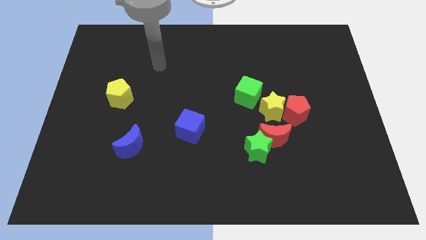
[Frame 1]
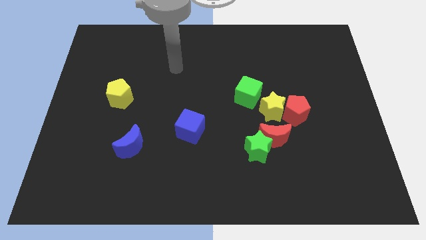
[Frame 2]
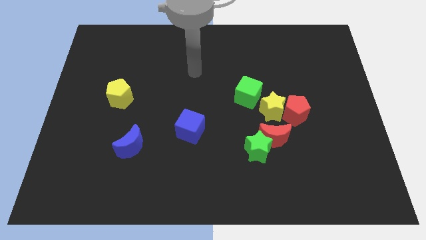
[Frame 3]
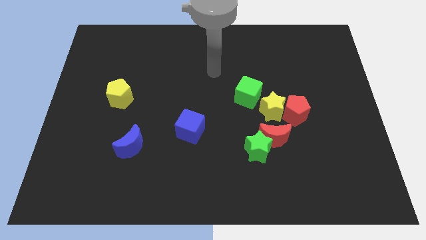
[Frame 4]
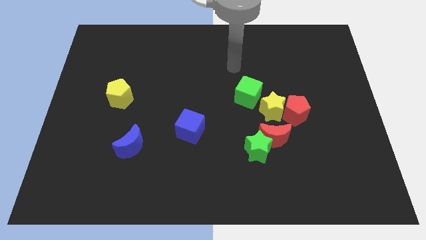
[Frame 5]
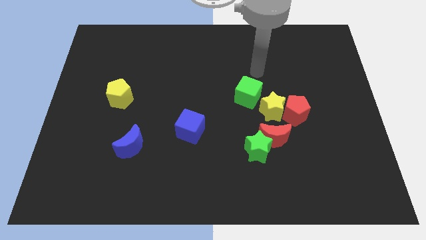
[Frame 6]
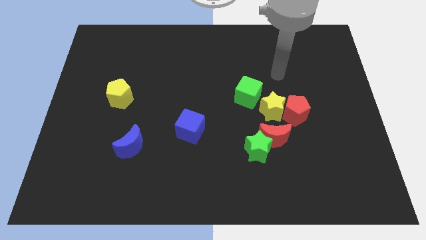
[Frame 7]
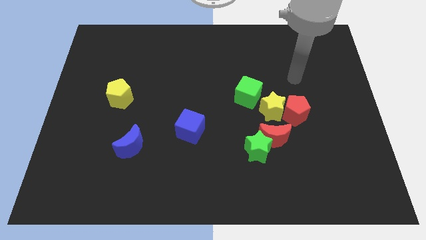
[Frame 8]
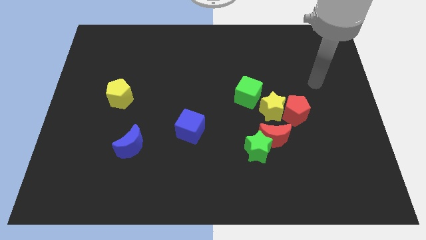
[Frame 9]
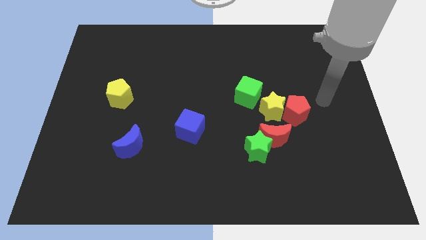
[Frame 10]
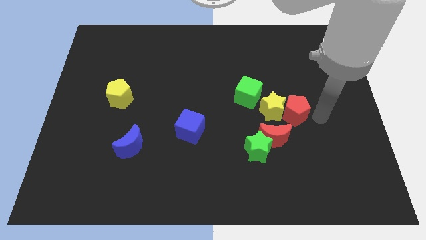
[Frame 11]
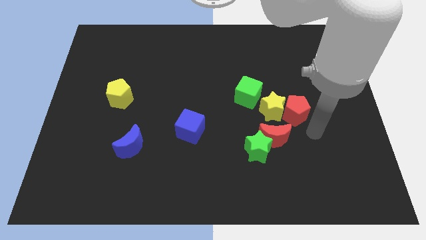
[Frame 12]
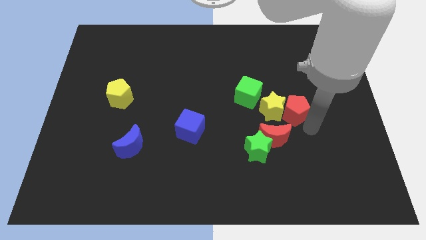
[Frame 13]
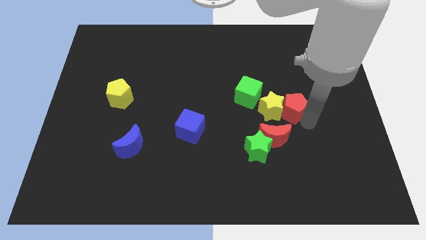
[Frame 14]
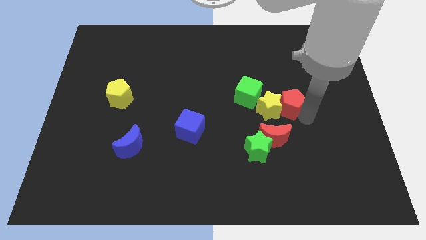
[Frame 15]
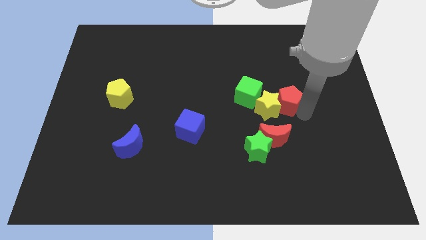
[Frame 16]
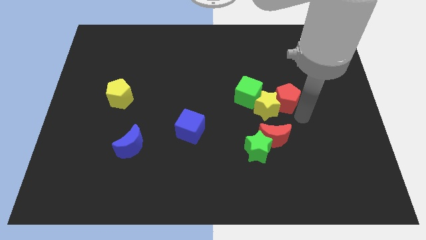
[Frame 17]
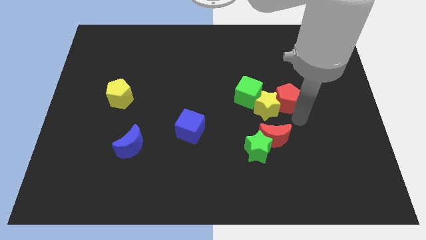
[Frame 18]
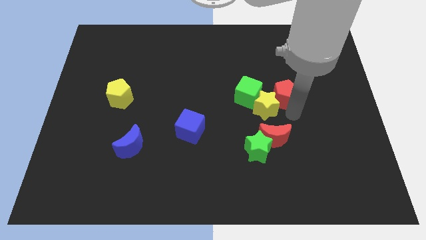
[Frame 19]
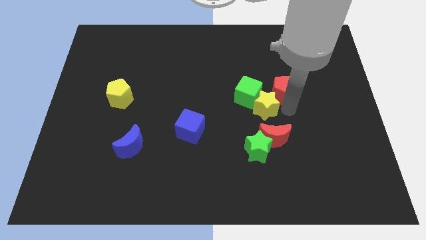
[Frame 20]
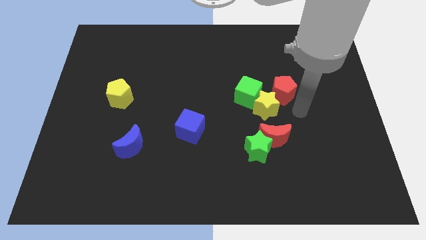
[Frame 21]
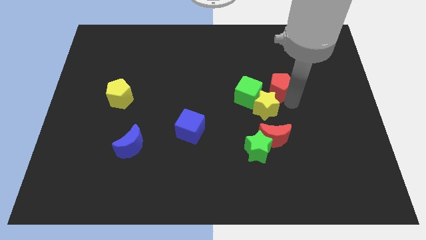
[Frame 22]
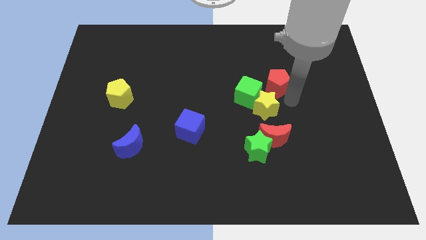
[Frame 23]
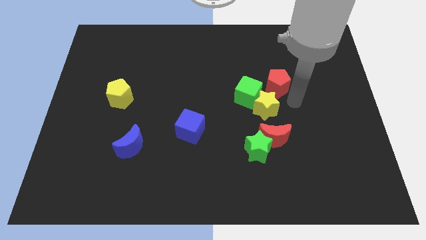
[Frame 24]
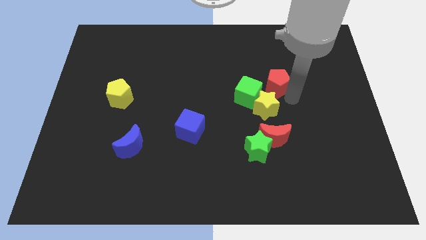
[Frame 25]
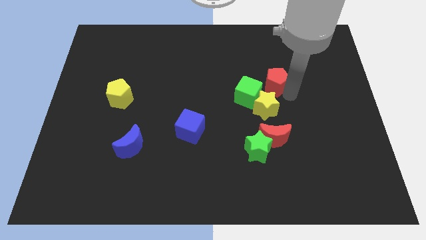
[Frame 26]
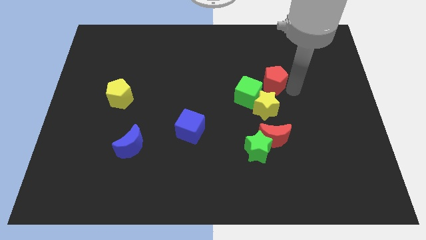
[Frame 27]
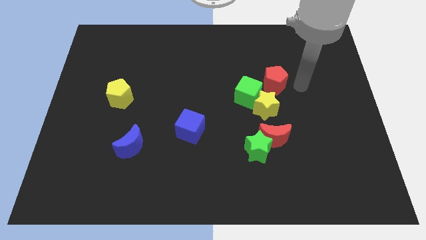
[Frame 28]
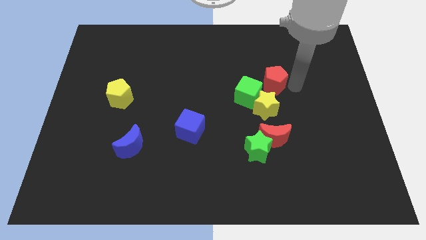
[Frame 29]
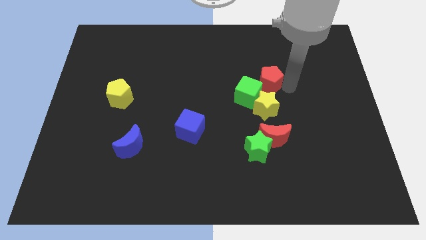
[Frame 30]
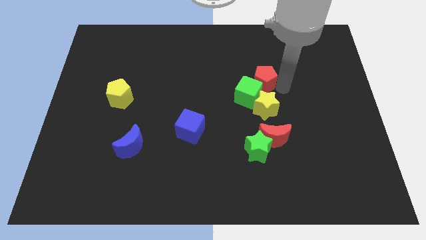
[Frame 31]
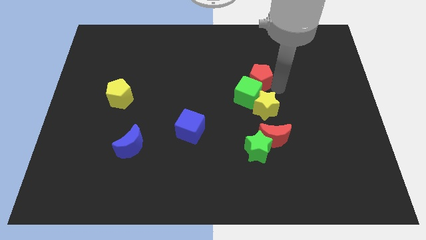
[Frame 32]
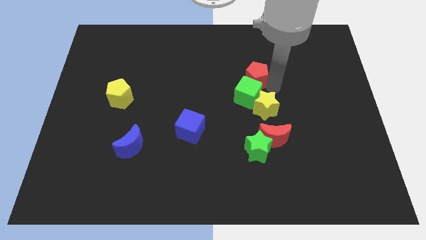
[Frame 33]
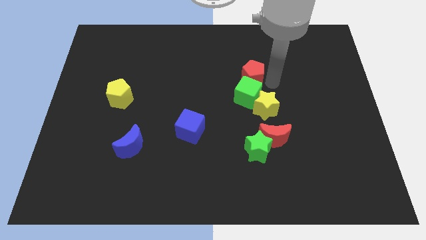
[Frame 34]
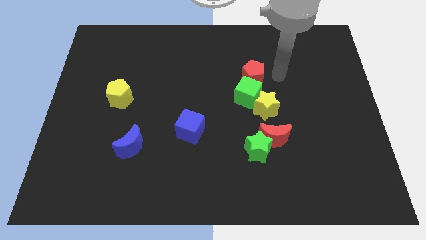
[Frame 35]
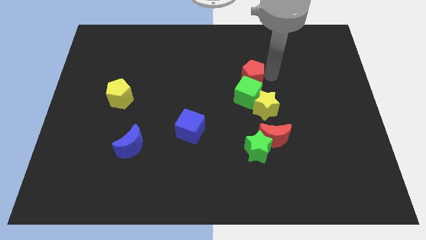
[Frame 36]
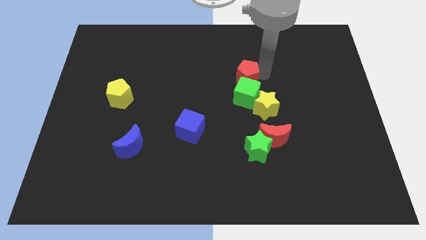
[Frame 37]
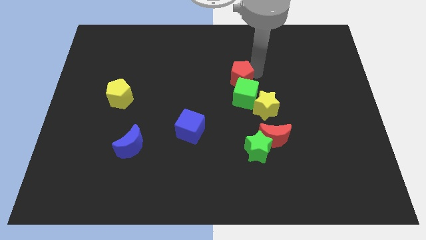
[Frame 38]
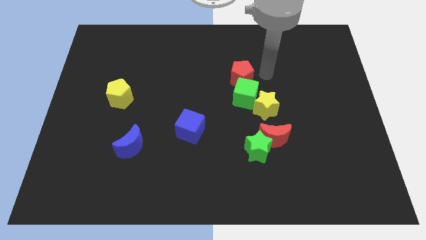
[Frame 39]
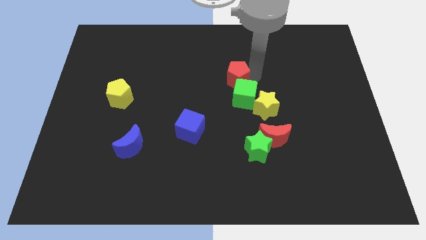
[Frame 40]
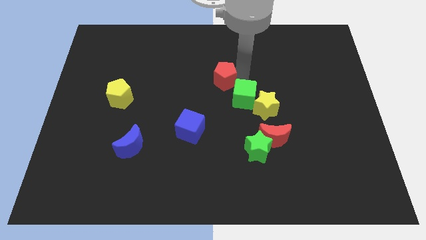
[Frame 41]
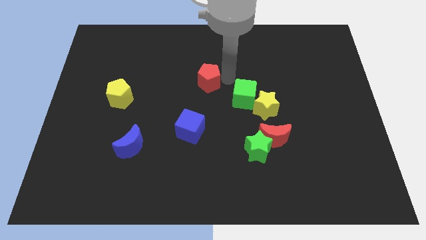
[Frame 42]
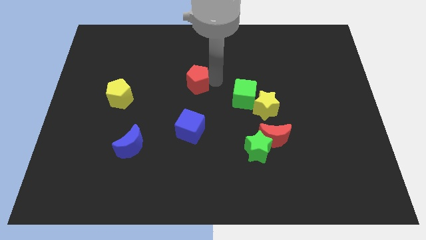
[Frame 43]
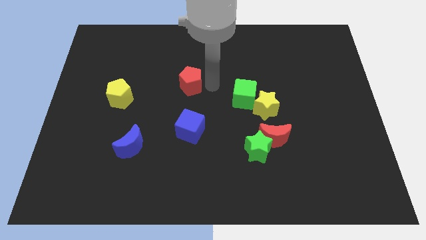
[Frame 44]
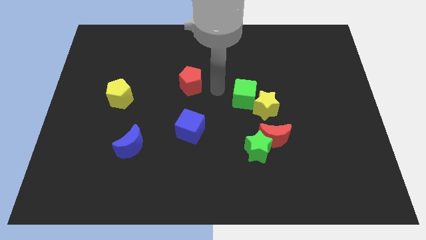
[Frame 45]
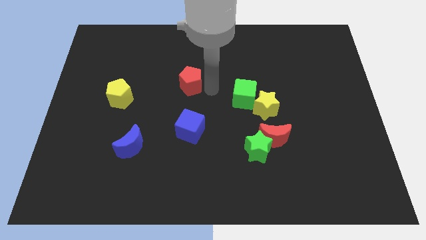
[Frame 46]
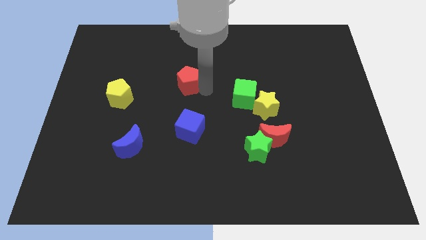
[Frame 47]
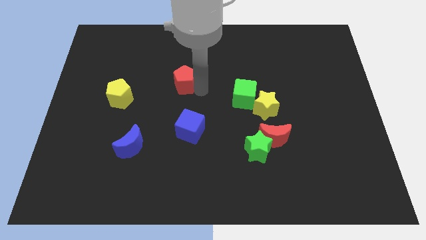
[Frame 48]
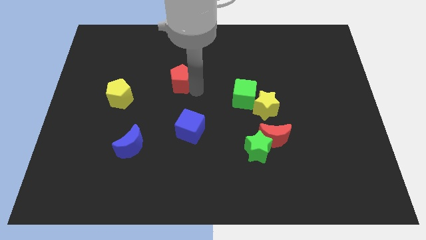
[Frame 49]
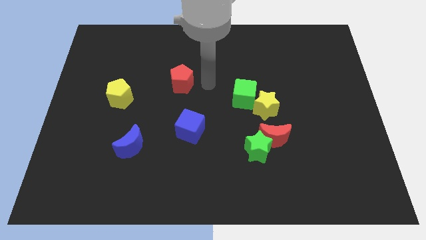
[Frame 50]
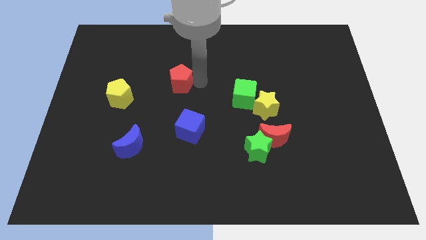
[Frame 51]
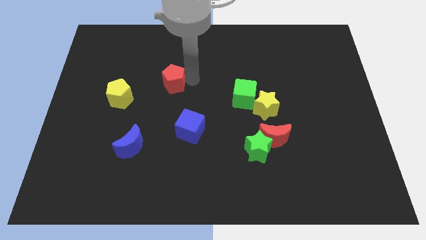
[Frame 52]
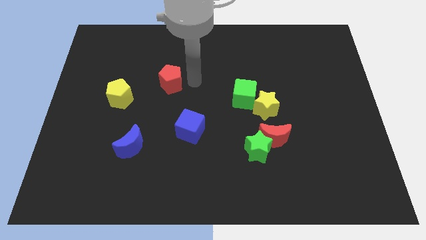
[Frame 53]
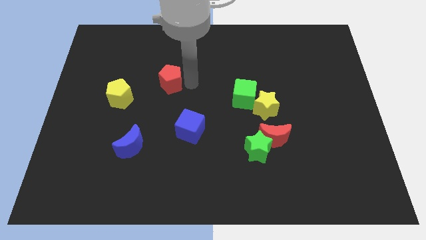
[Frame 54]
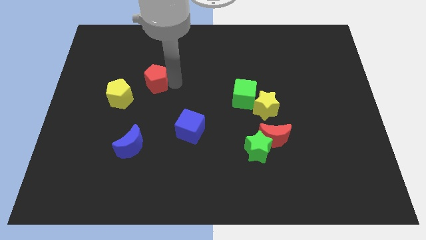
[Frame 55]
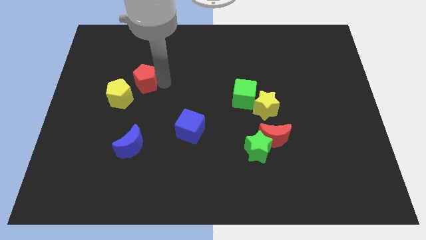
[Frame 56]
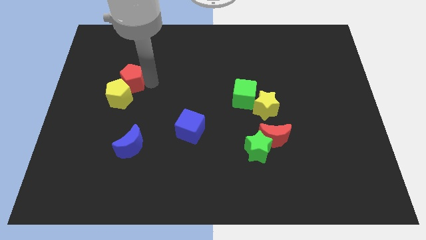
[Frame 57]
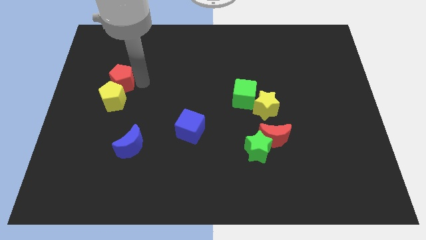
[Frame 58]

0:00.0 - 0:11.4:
put the red pentagon diagonally up and to the left of the yellow pentagon
